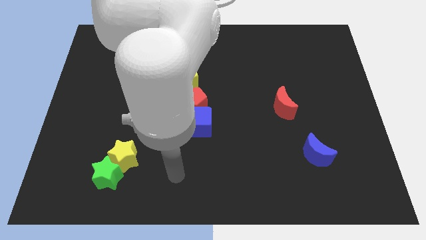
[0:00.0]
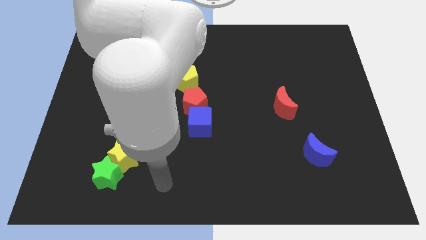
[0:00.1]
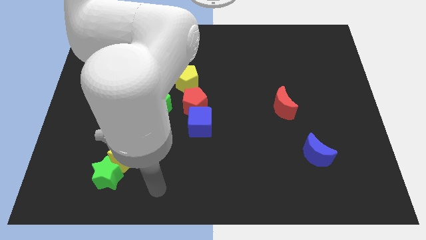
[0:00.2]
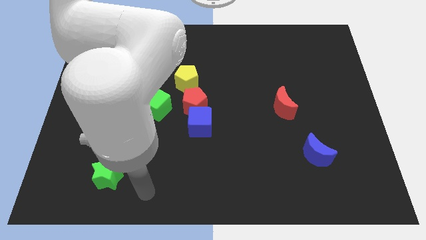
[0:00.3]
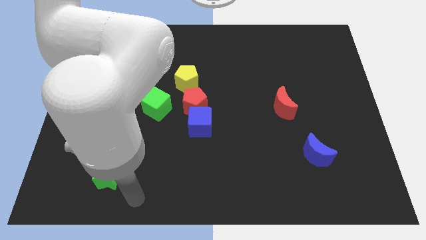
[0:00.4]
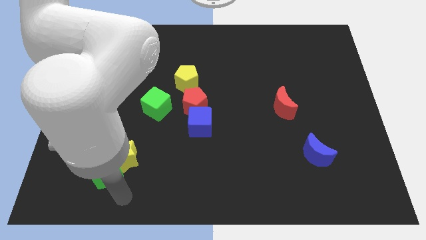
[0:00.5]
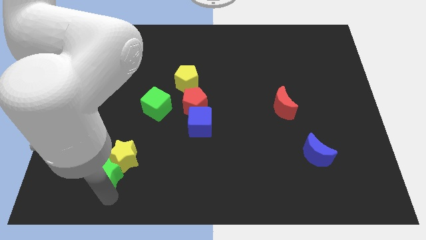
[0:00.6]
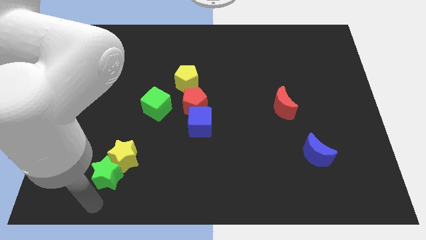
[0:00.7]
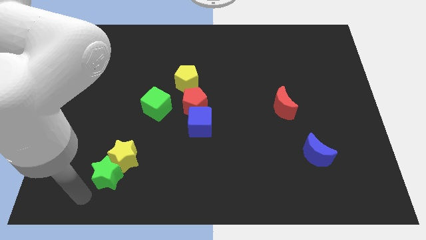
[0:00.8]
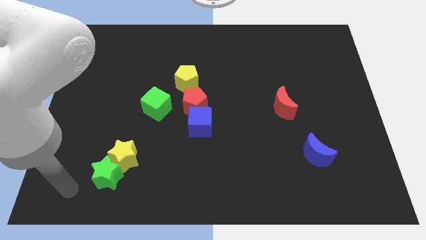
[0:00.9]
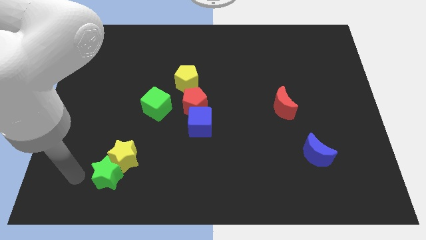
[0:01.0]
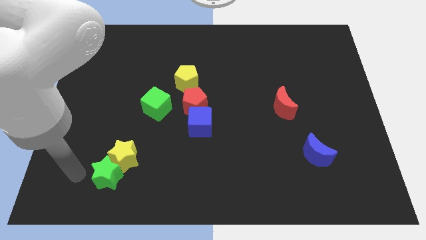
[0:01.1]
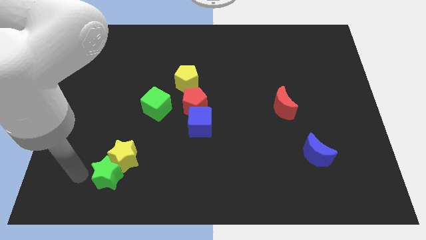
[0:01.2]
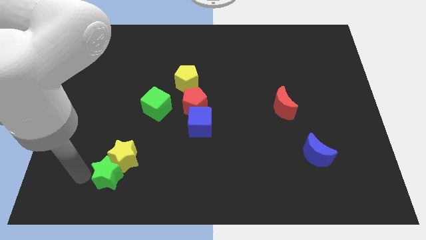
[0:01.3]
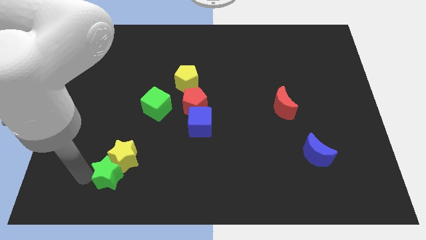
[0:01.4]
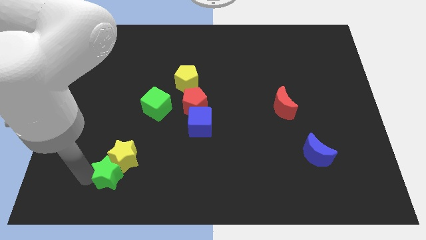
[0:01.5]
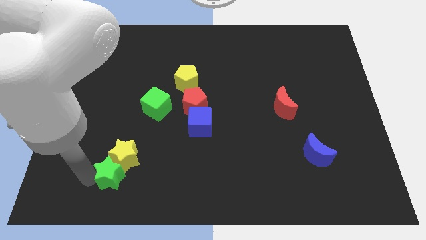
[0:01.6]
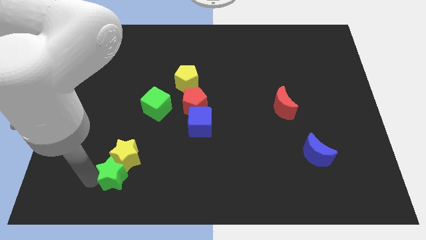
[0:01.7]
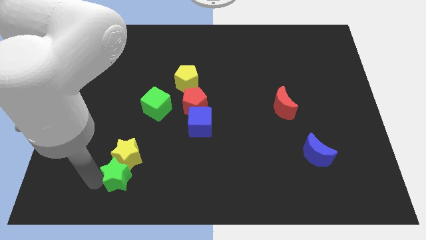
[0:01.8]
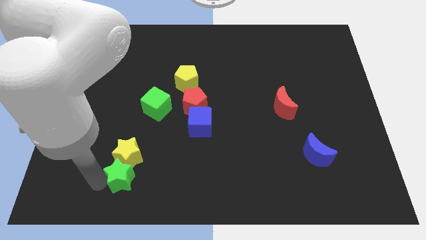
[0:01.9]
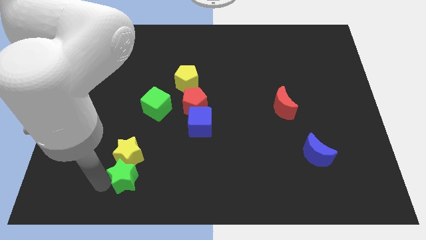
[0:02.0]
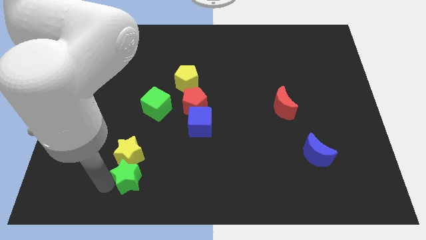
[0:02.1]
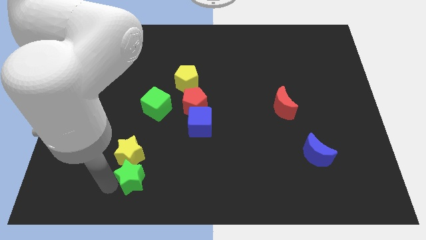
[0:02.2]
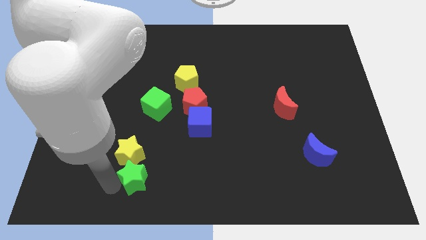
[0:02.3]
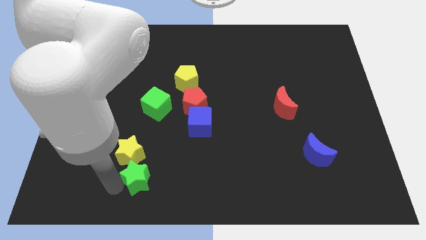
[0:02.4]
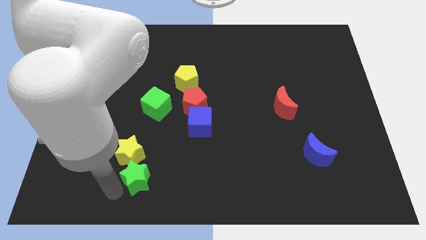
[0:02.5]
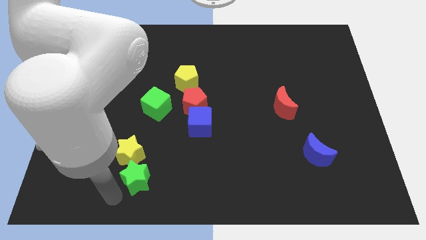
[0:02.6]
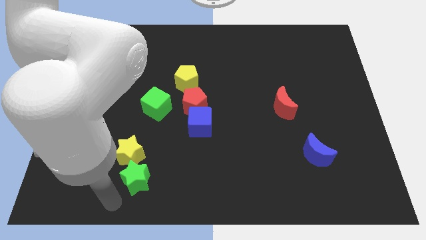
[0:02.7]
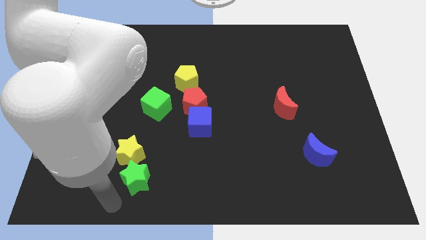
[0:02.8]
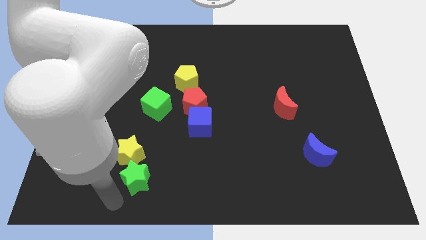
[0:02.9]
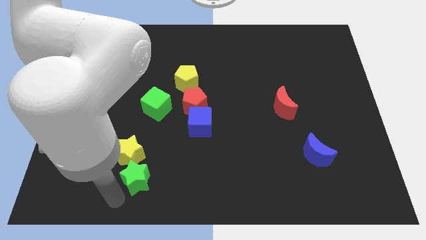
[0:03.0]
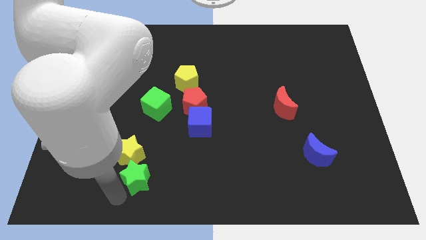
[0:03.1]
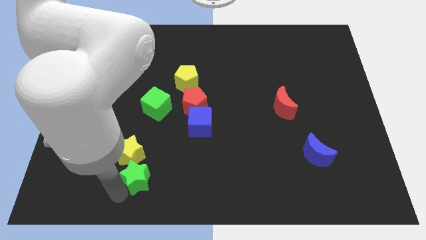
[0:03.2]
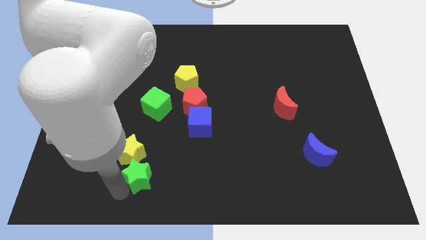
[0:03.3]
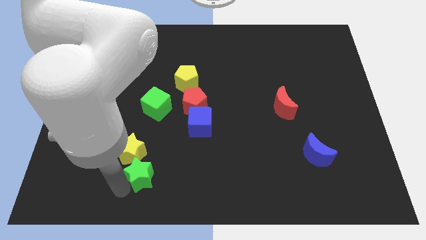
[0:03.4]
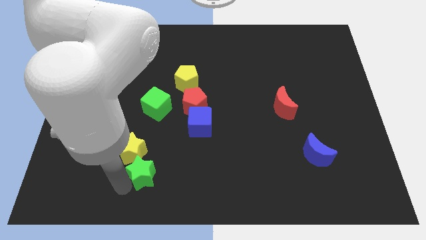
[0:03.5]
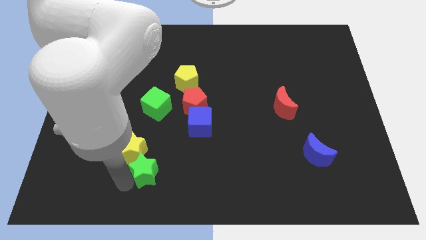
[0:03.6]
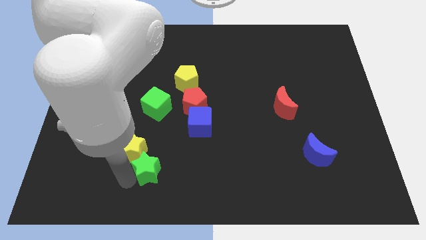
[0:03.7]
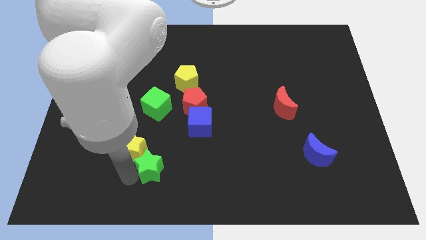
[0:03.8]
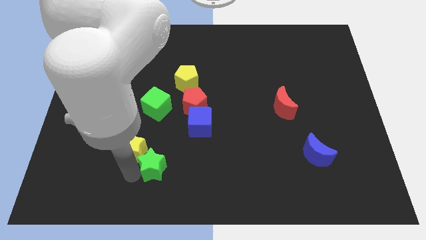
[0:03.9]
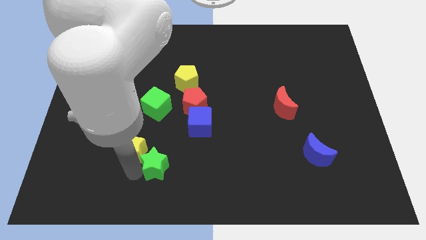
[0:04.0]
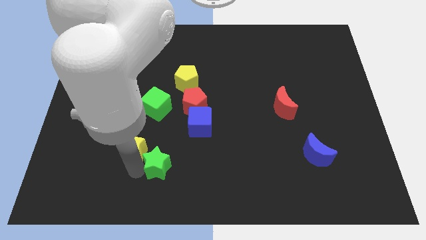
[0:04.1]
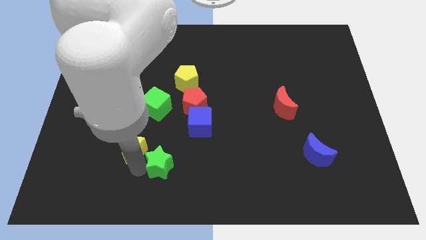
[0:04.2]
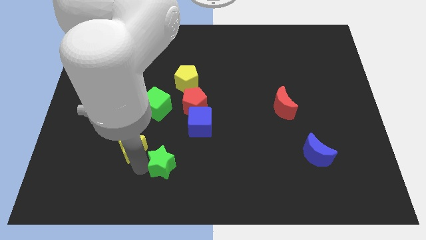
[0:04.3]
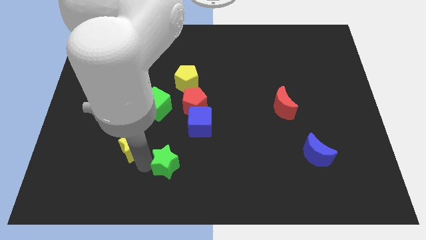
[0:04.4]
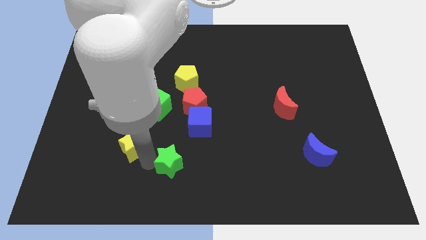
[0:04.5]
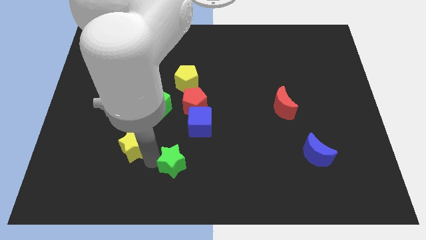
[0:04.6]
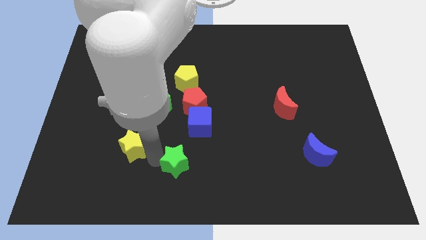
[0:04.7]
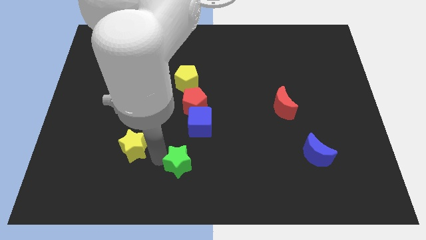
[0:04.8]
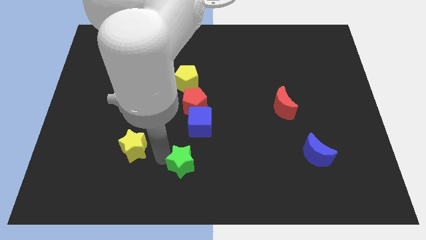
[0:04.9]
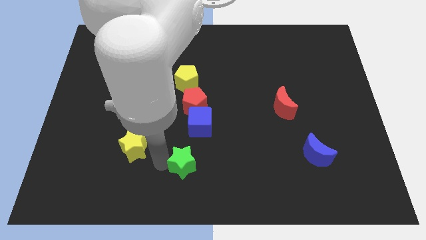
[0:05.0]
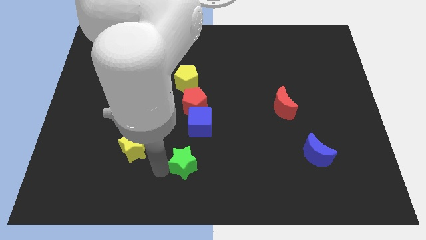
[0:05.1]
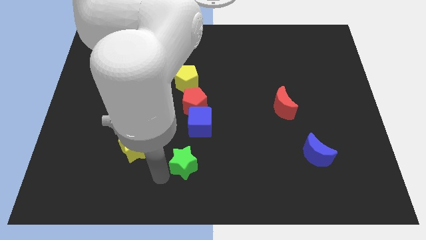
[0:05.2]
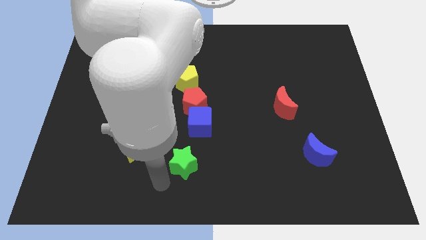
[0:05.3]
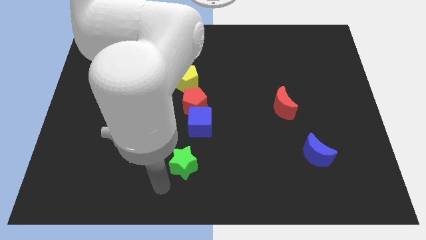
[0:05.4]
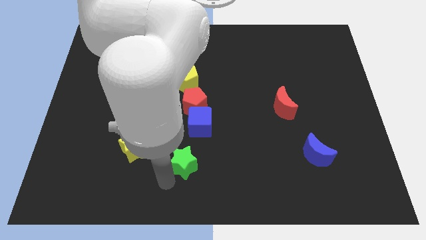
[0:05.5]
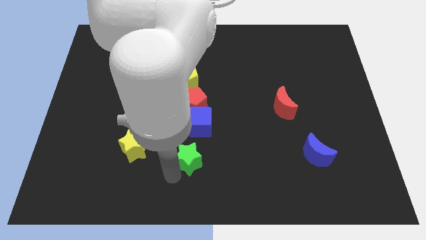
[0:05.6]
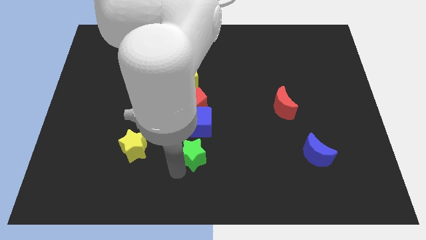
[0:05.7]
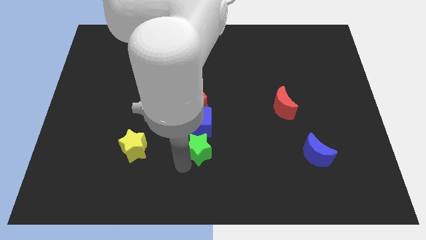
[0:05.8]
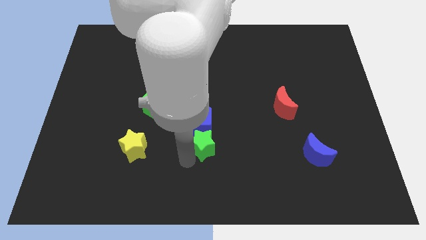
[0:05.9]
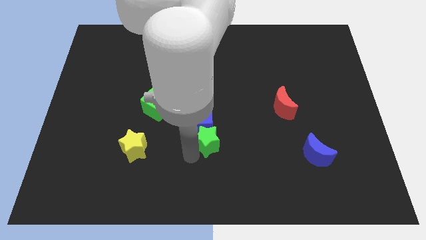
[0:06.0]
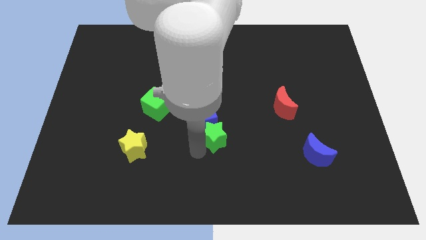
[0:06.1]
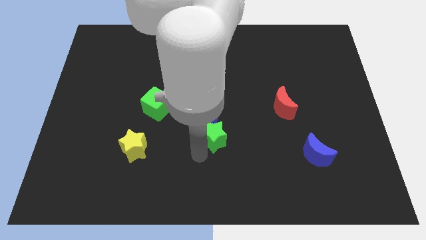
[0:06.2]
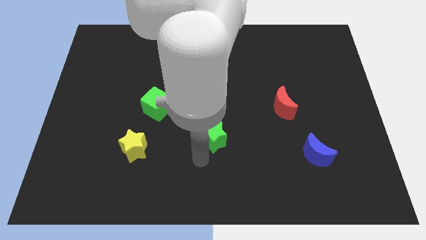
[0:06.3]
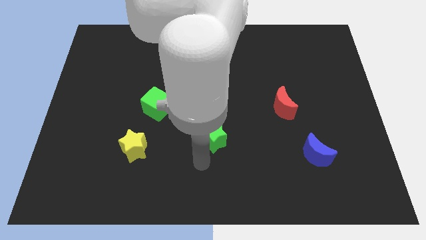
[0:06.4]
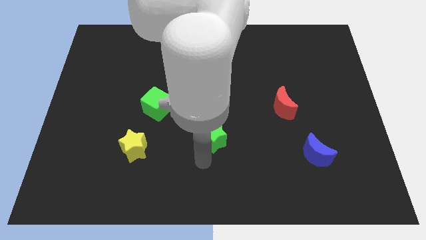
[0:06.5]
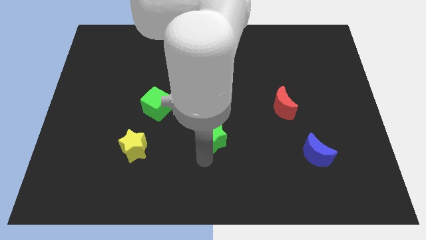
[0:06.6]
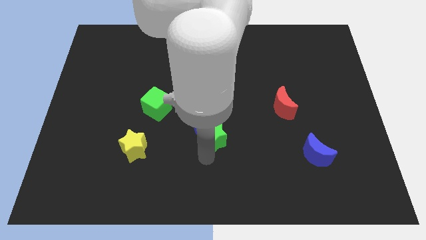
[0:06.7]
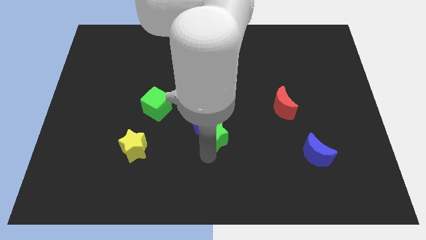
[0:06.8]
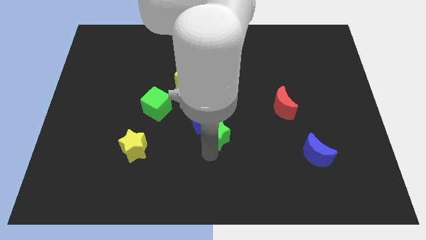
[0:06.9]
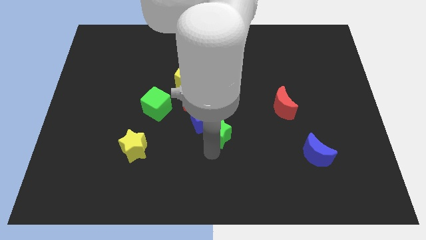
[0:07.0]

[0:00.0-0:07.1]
push the green star upwards and right

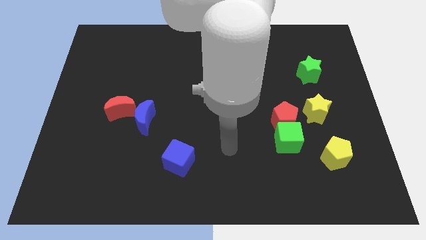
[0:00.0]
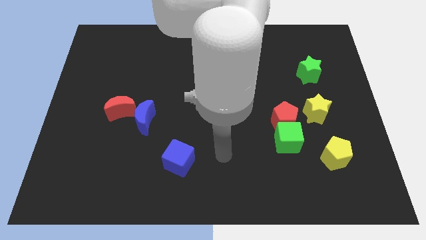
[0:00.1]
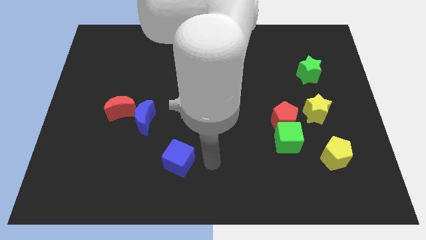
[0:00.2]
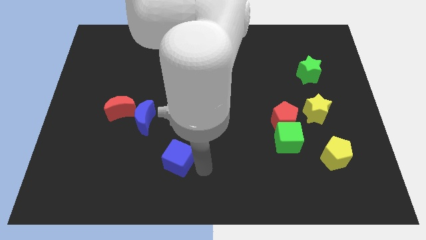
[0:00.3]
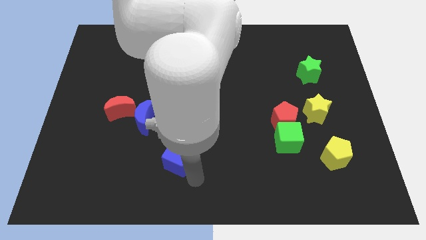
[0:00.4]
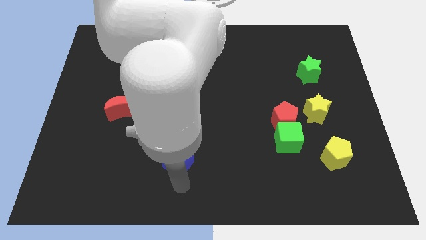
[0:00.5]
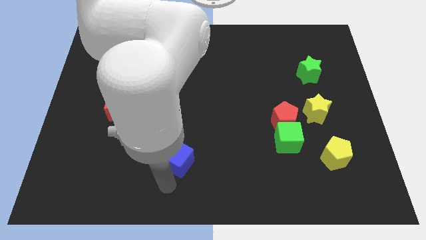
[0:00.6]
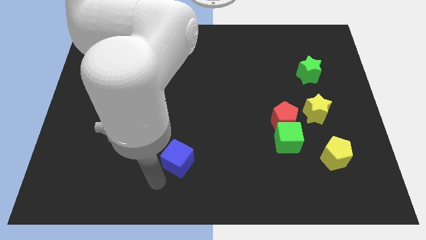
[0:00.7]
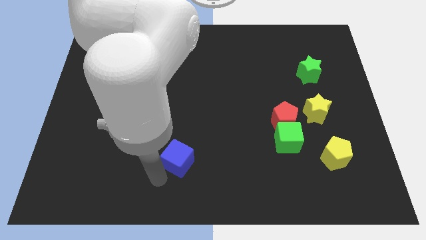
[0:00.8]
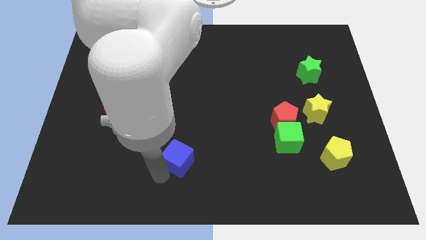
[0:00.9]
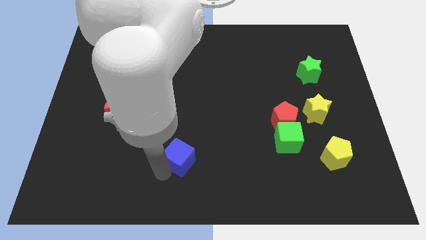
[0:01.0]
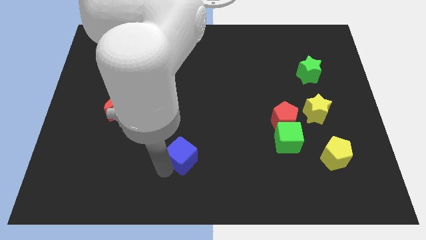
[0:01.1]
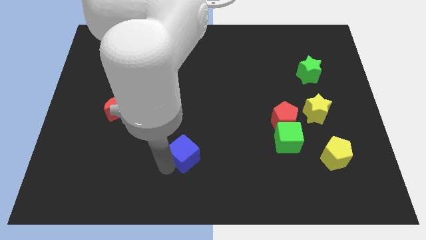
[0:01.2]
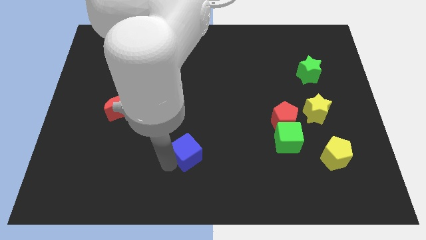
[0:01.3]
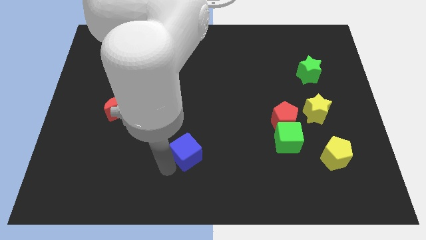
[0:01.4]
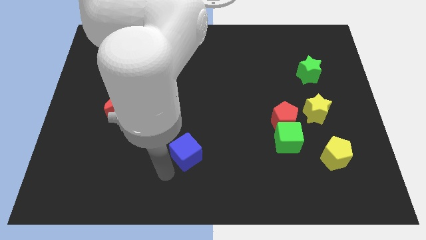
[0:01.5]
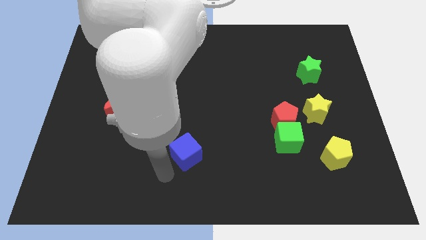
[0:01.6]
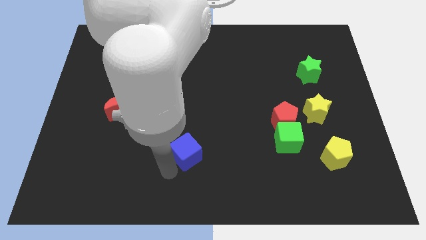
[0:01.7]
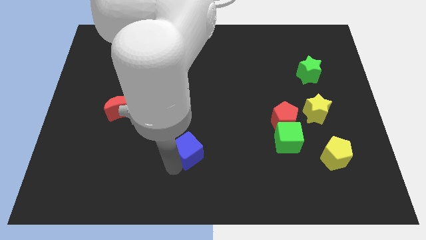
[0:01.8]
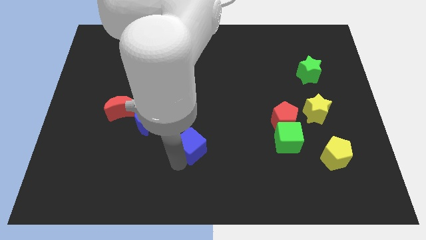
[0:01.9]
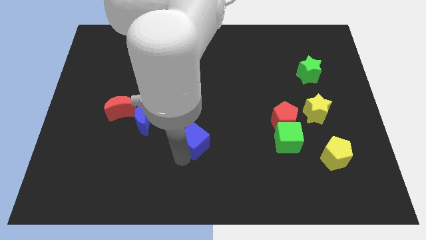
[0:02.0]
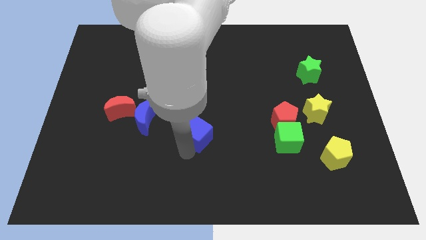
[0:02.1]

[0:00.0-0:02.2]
slightly move the blue cube upwards and to the right
